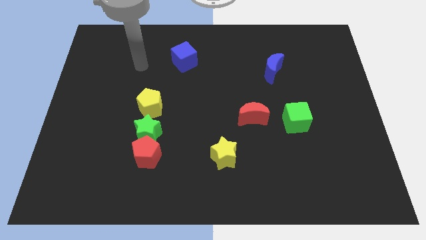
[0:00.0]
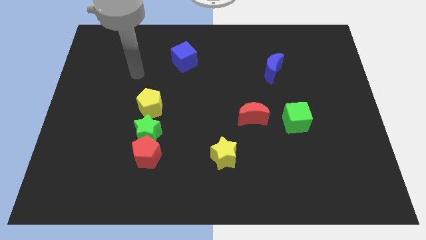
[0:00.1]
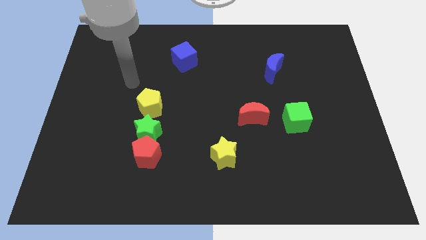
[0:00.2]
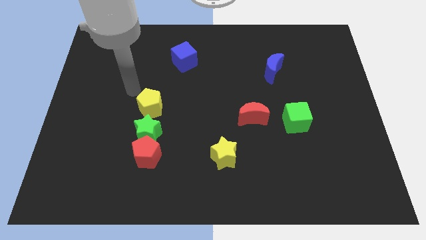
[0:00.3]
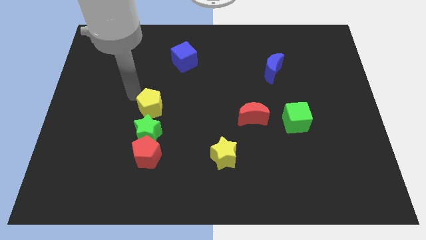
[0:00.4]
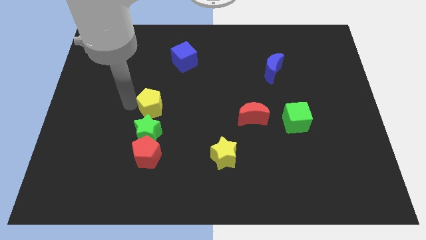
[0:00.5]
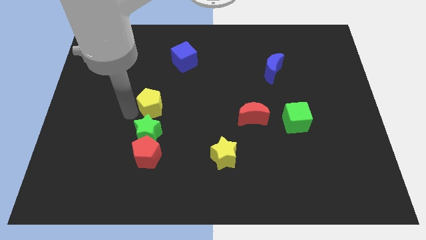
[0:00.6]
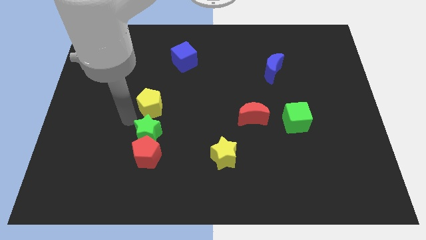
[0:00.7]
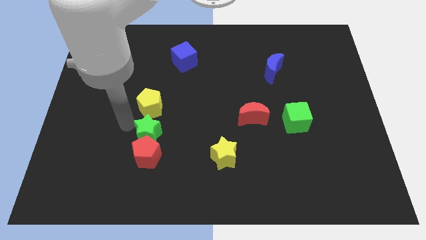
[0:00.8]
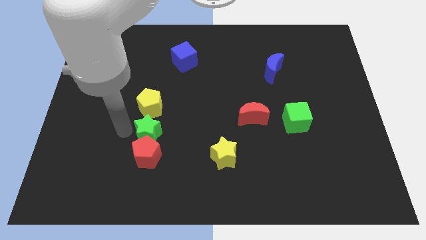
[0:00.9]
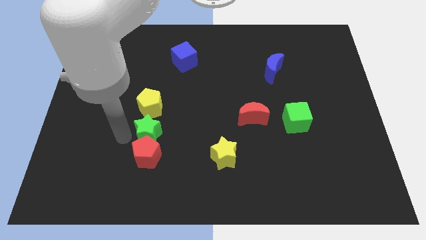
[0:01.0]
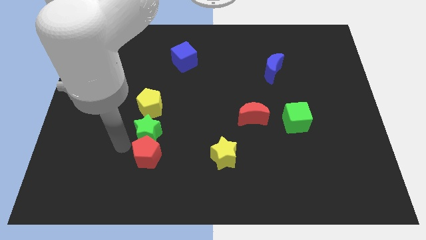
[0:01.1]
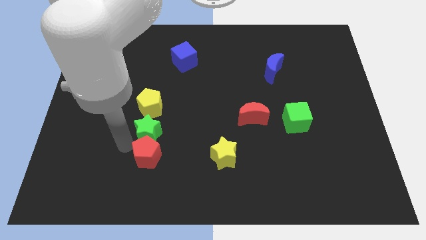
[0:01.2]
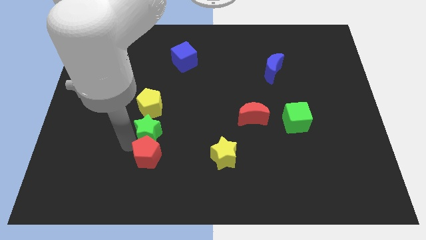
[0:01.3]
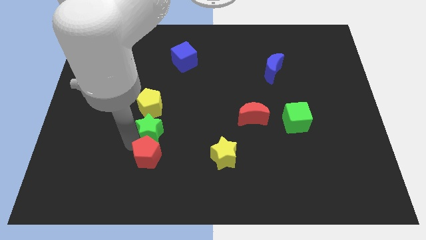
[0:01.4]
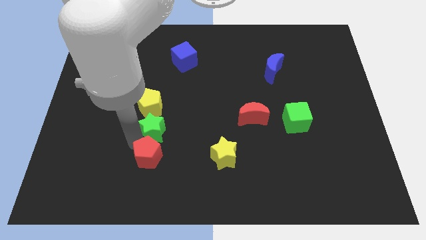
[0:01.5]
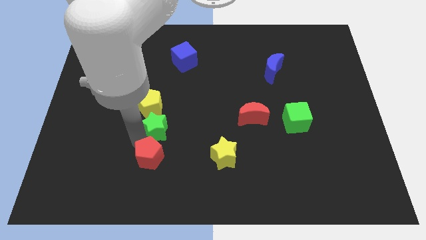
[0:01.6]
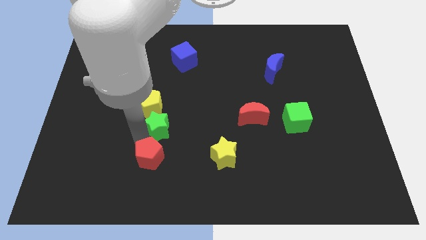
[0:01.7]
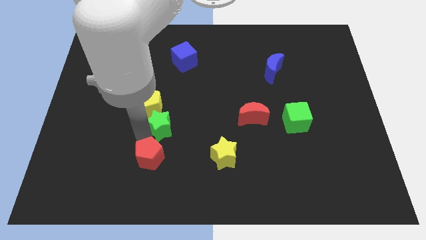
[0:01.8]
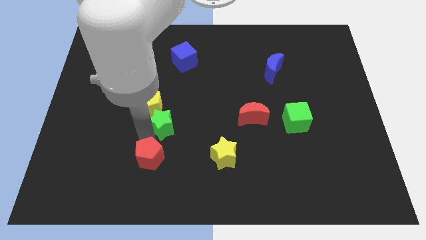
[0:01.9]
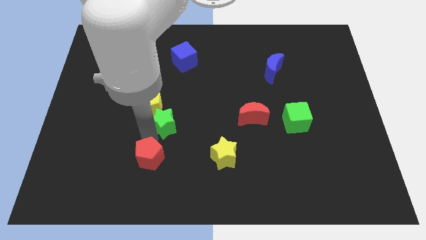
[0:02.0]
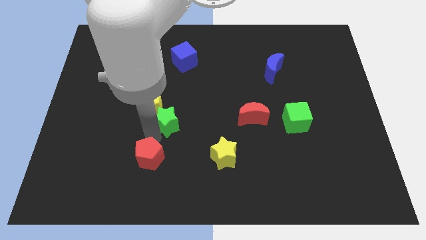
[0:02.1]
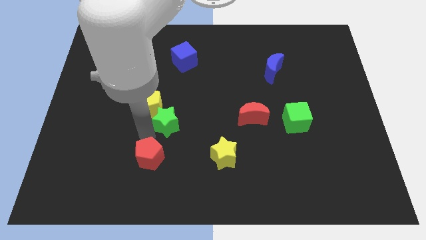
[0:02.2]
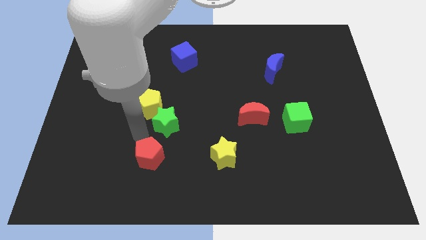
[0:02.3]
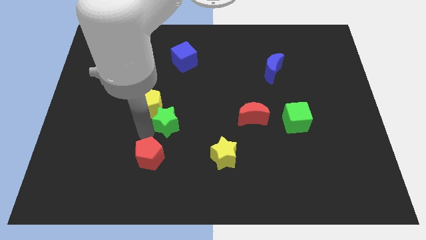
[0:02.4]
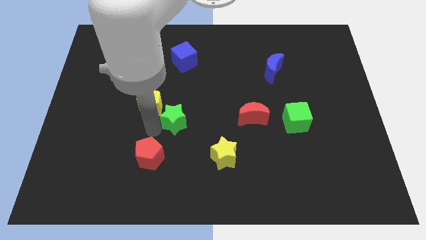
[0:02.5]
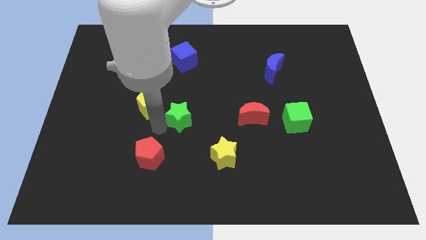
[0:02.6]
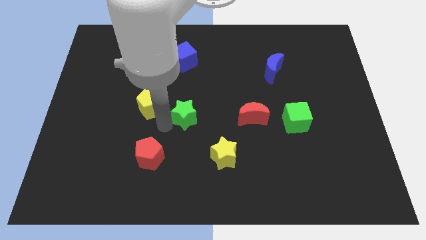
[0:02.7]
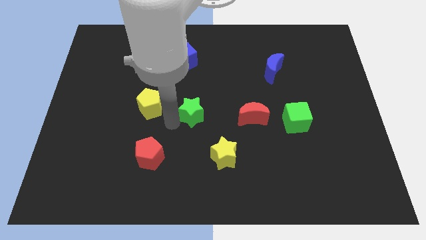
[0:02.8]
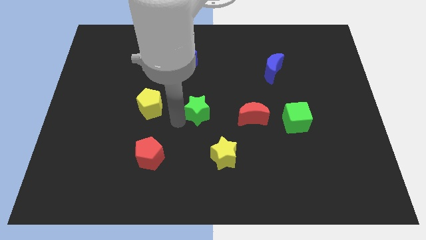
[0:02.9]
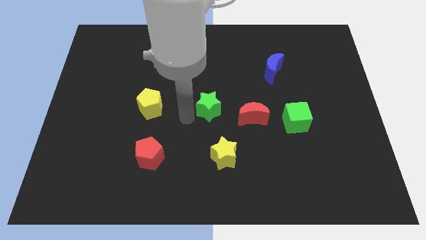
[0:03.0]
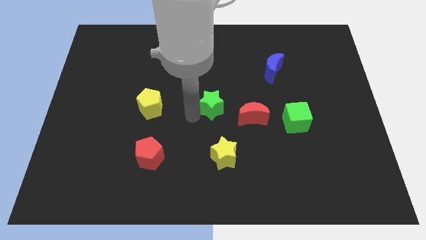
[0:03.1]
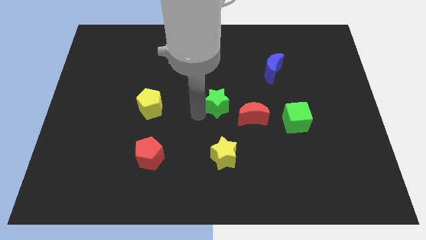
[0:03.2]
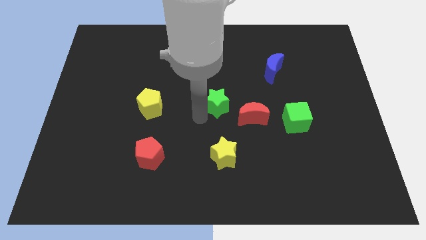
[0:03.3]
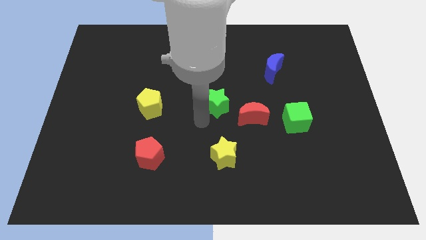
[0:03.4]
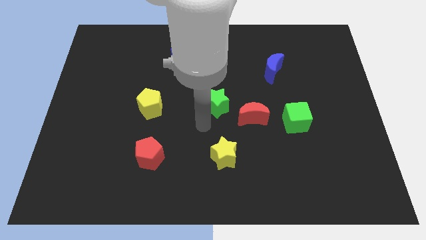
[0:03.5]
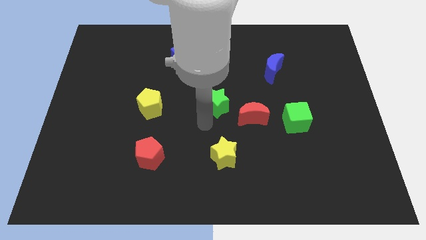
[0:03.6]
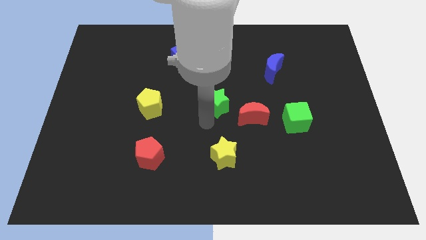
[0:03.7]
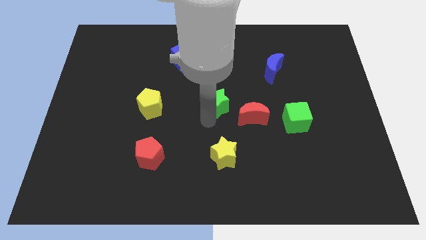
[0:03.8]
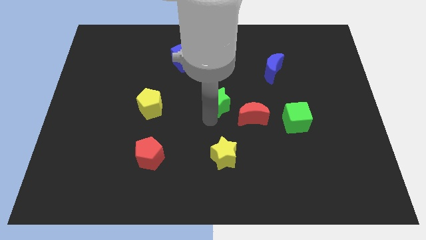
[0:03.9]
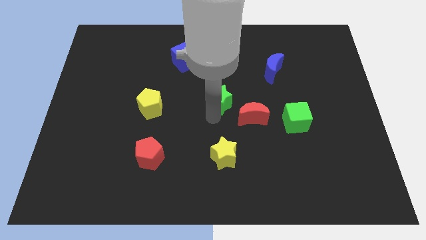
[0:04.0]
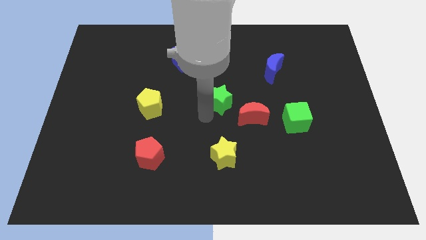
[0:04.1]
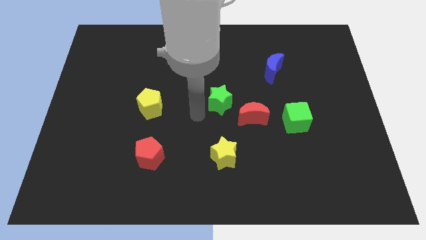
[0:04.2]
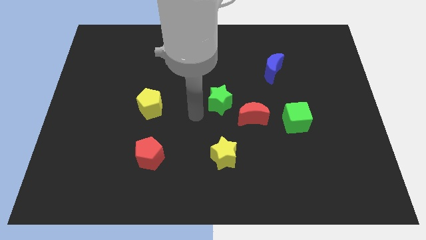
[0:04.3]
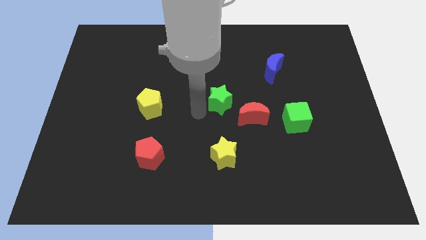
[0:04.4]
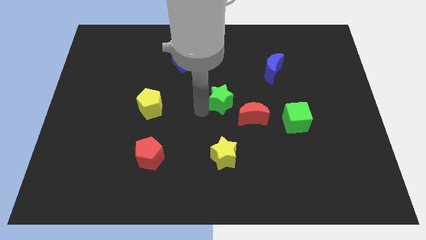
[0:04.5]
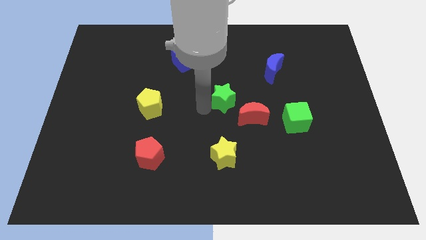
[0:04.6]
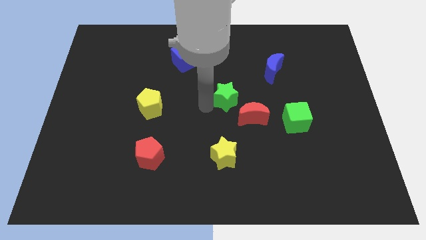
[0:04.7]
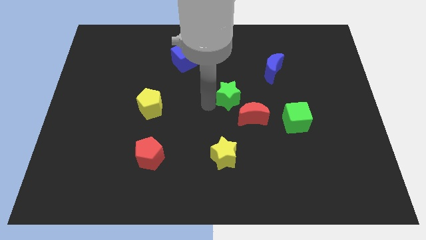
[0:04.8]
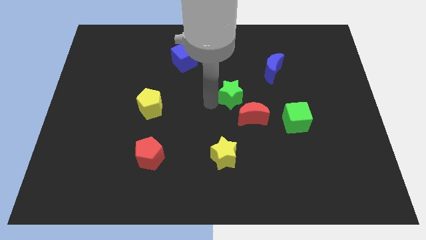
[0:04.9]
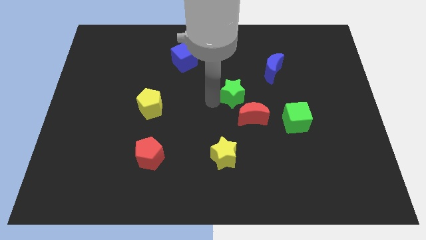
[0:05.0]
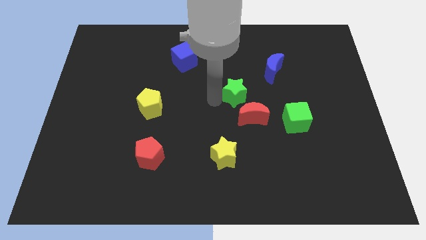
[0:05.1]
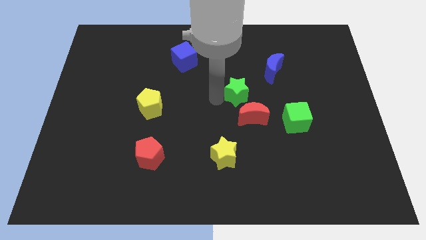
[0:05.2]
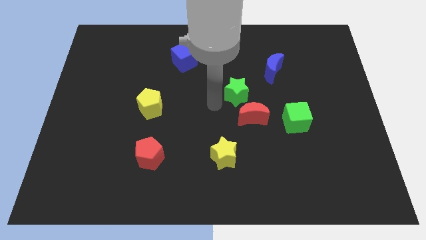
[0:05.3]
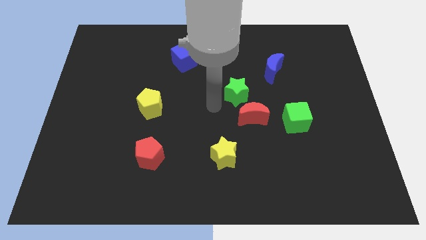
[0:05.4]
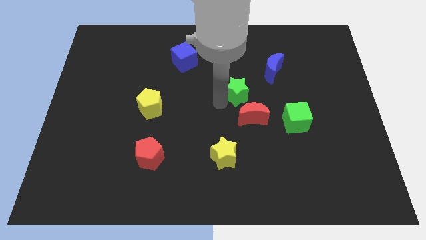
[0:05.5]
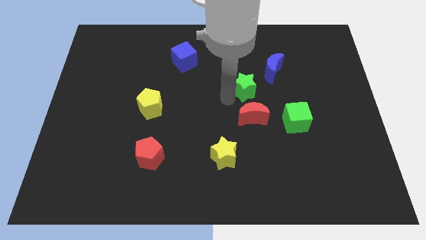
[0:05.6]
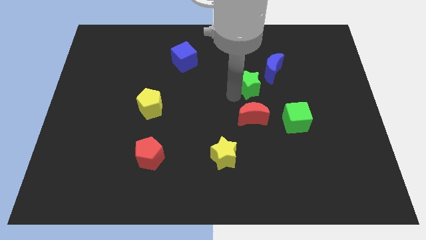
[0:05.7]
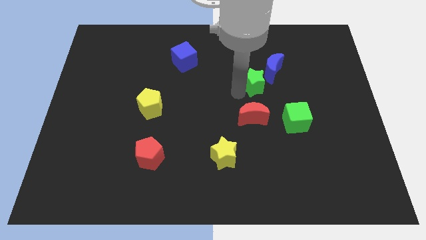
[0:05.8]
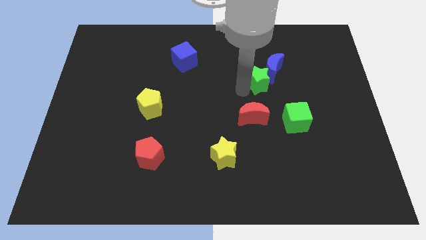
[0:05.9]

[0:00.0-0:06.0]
put the green star towards the blue moon
